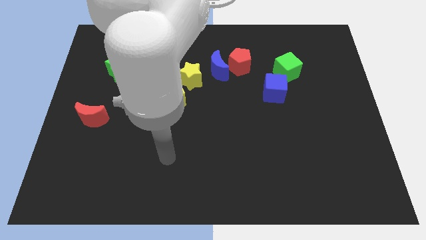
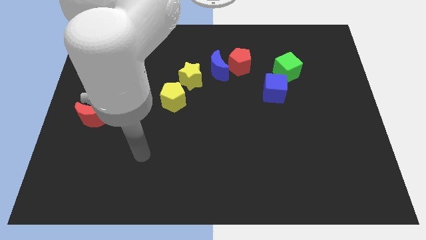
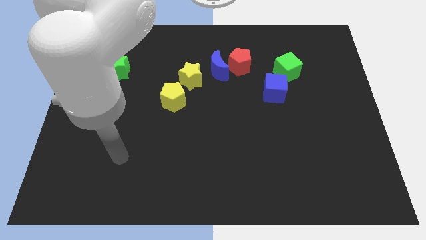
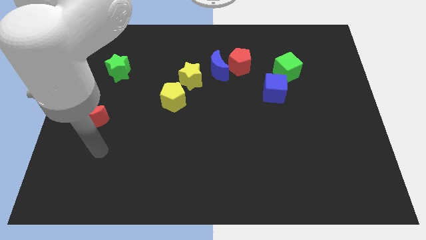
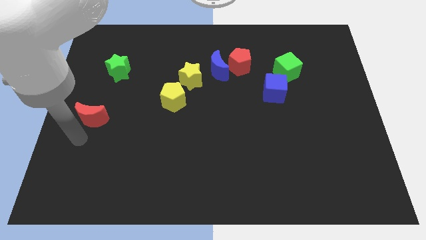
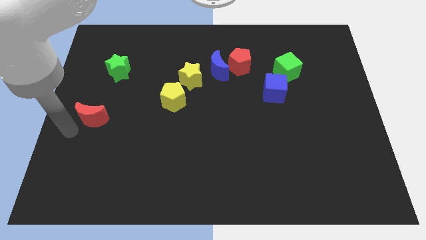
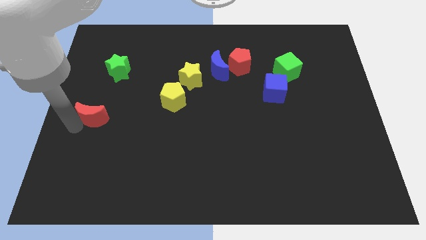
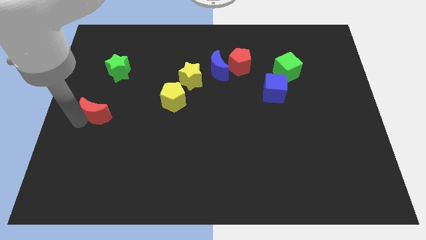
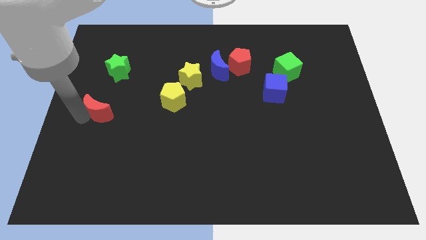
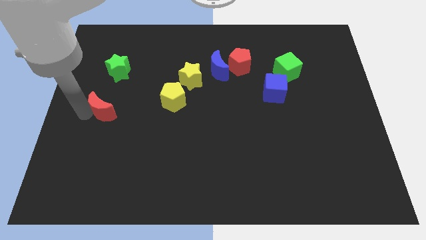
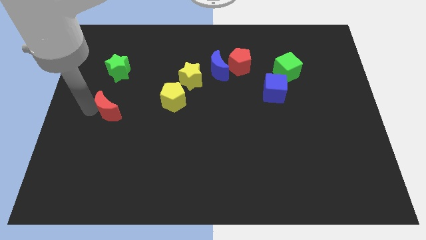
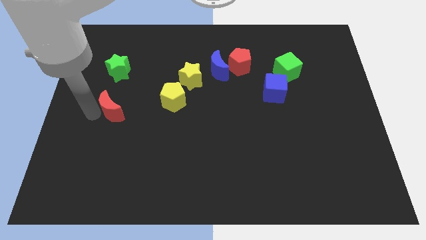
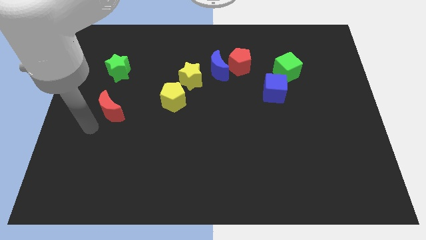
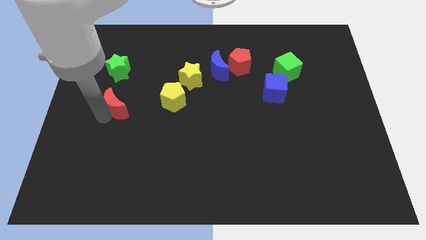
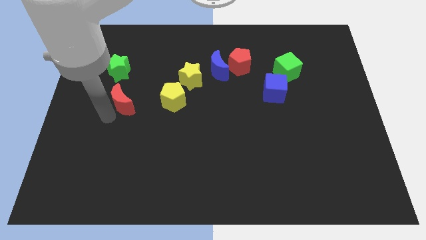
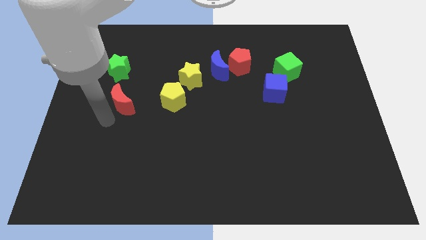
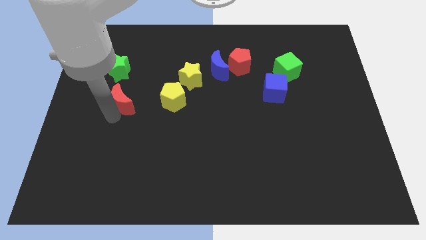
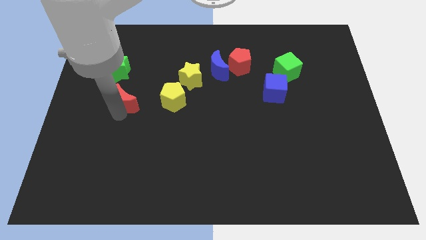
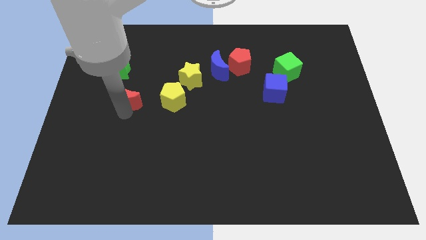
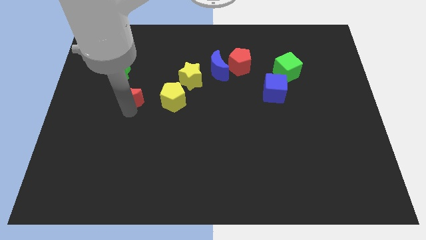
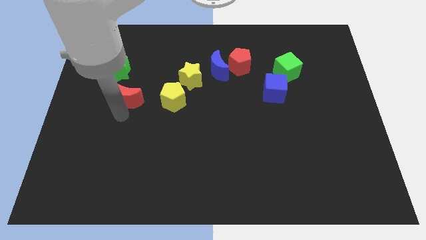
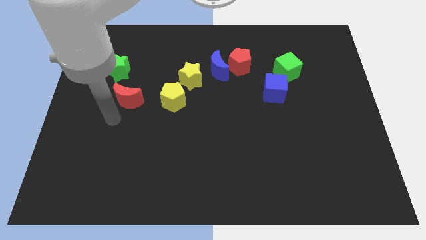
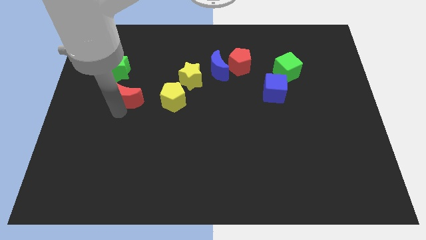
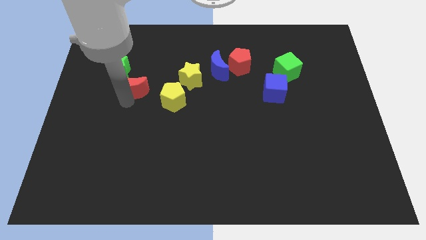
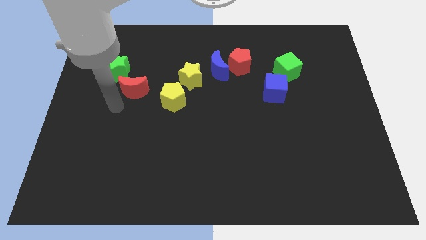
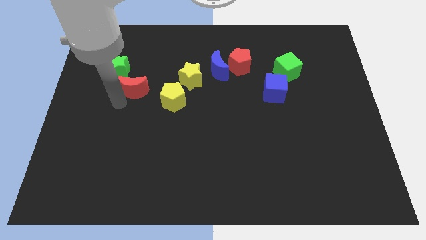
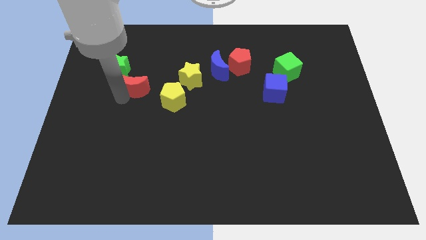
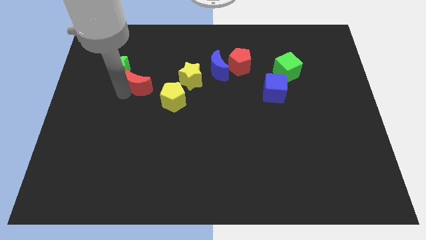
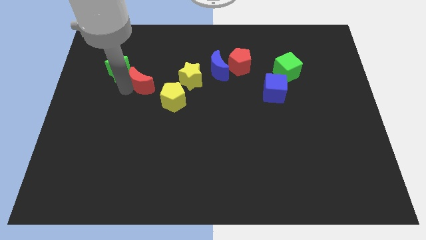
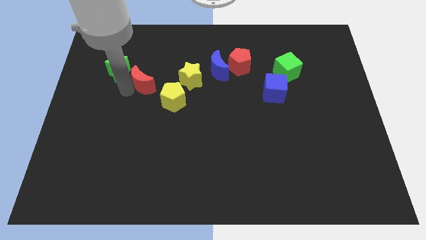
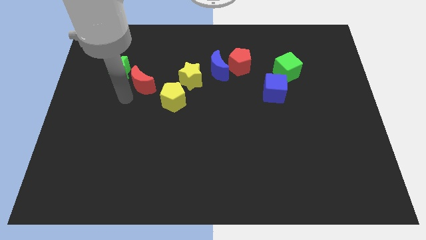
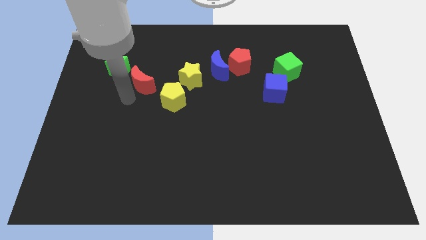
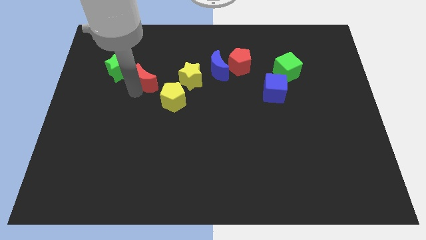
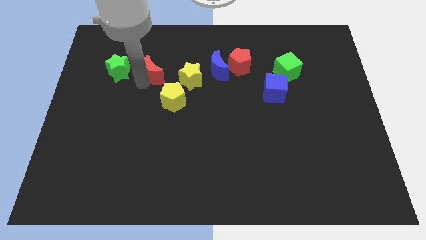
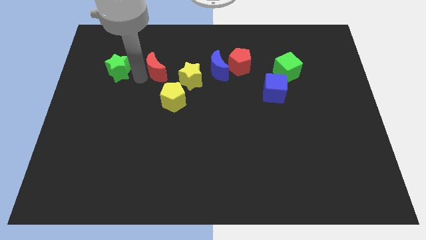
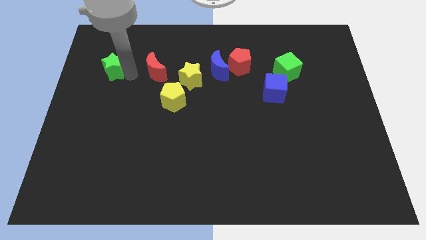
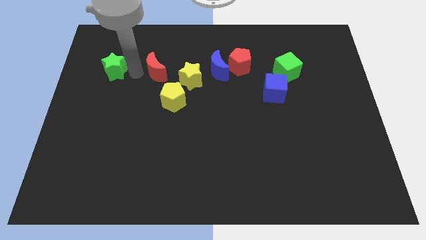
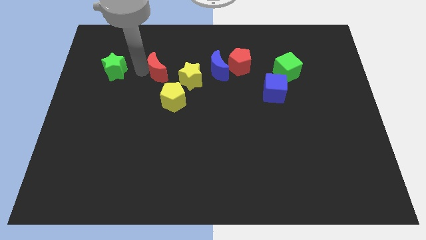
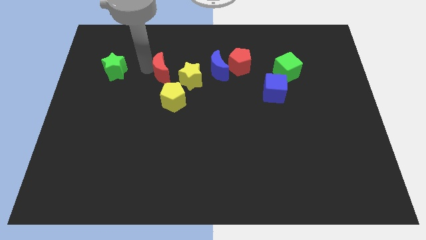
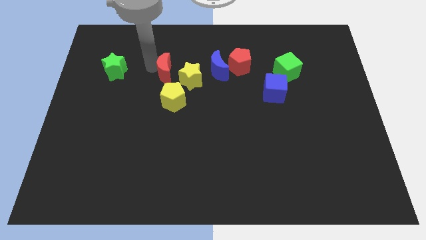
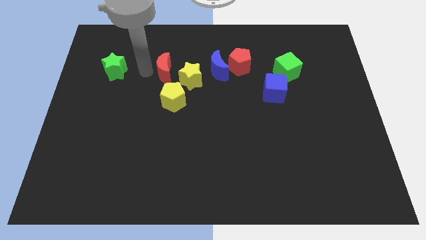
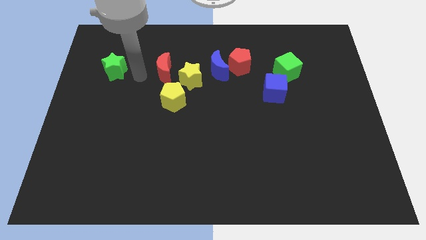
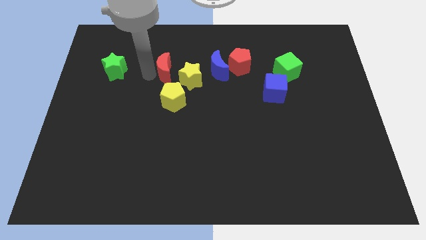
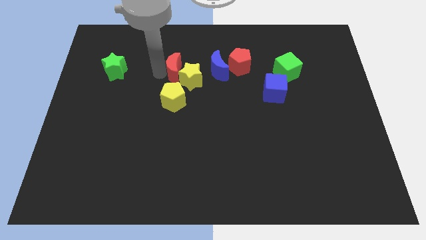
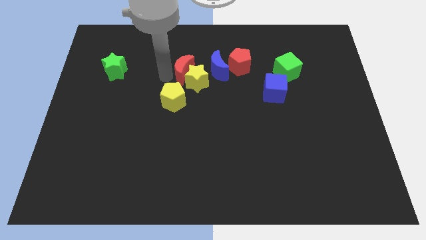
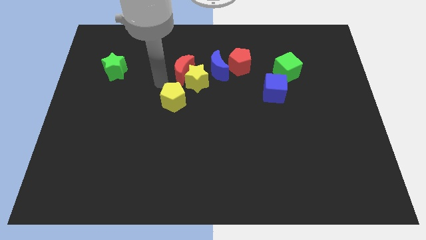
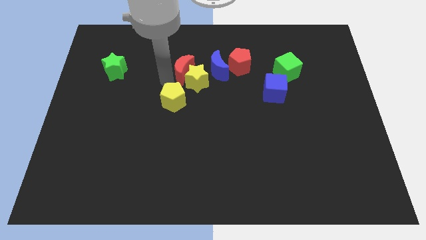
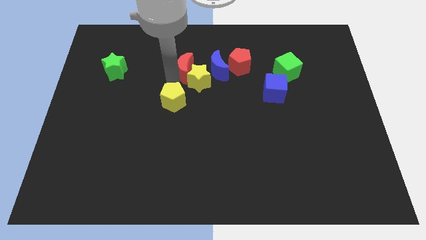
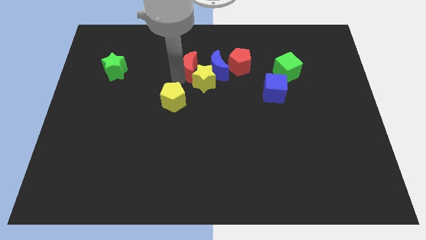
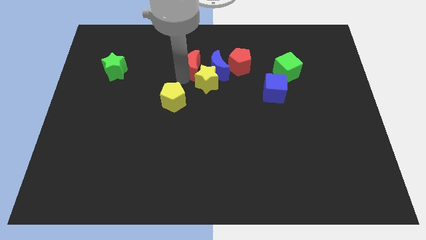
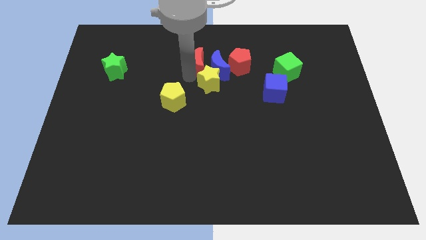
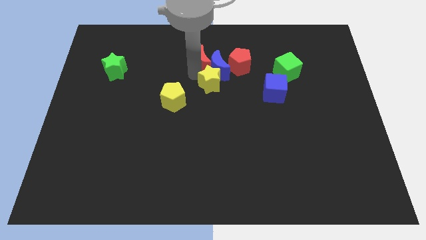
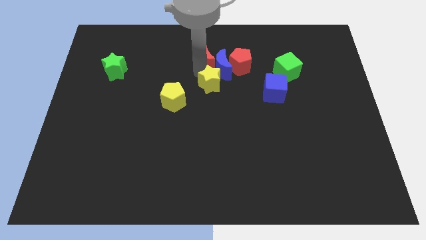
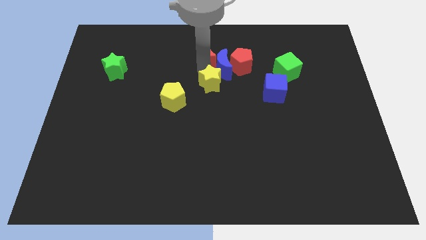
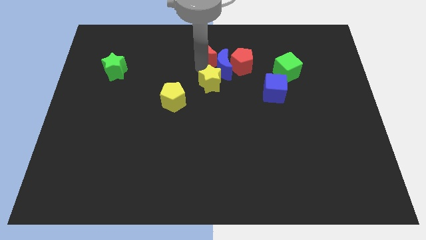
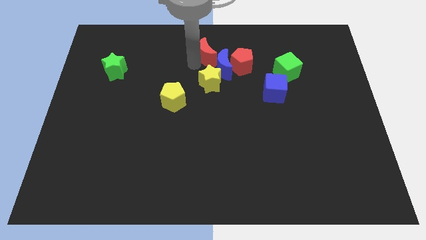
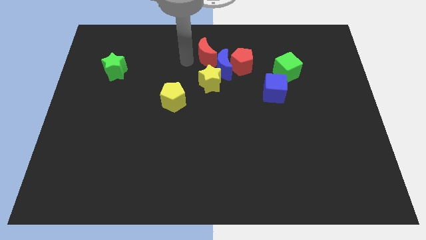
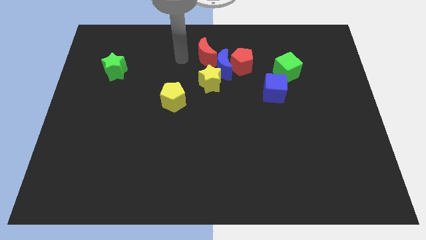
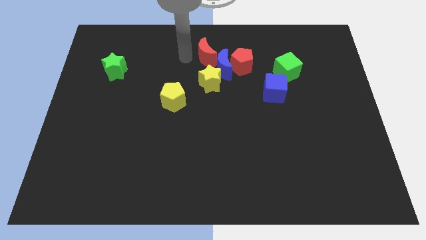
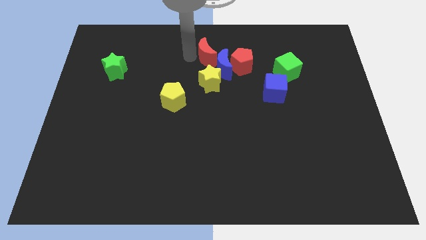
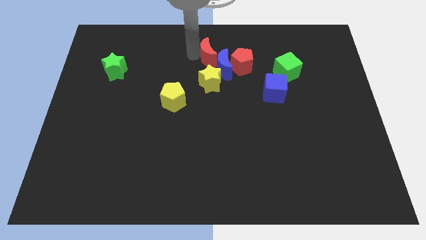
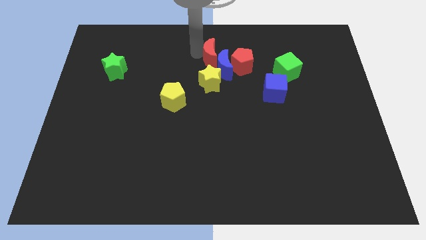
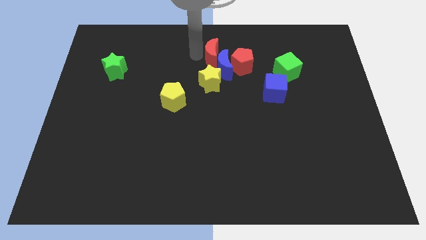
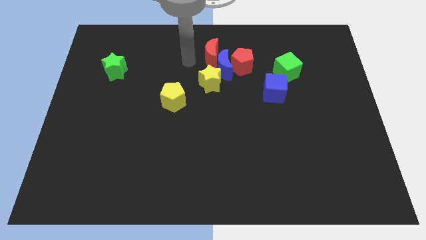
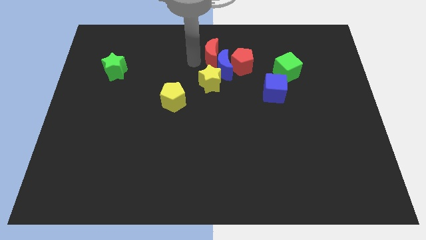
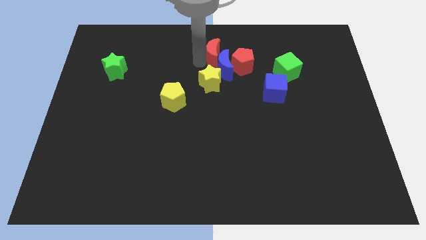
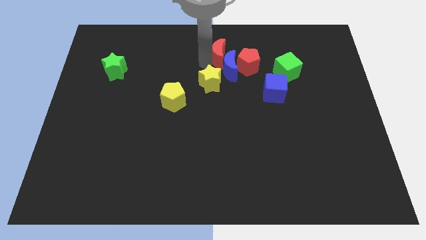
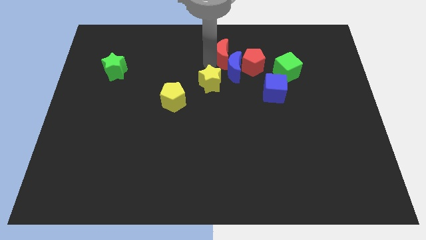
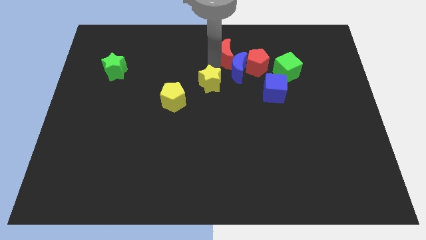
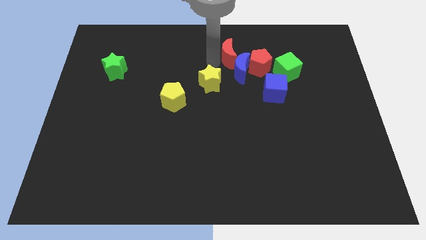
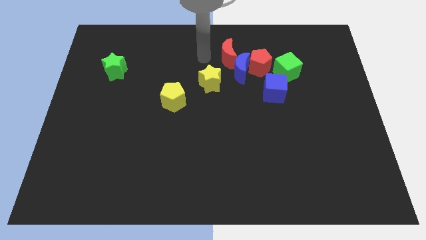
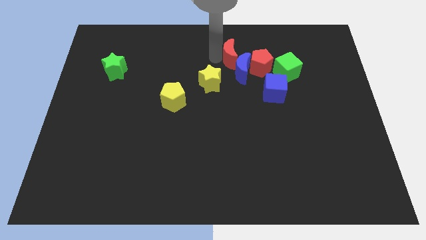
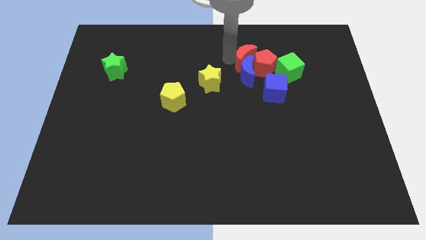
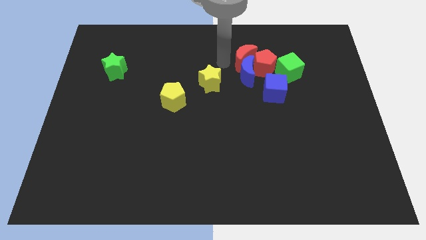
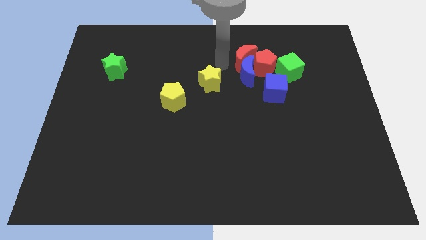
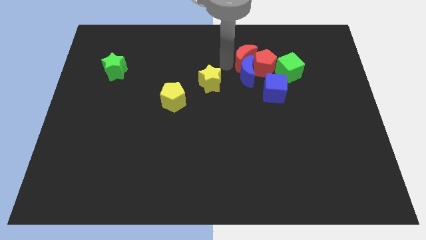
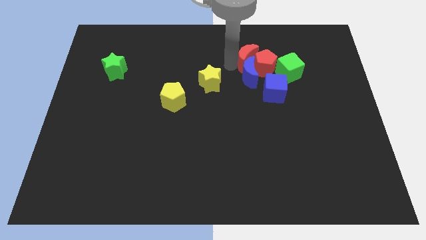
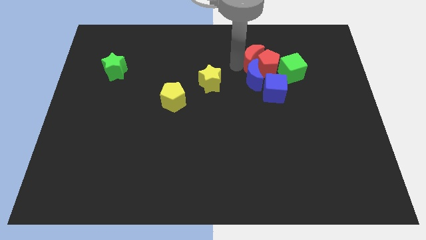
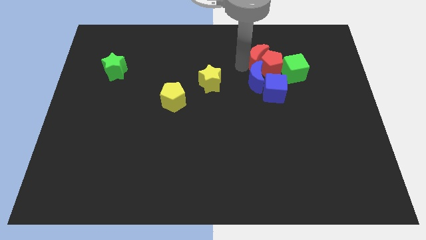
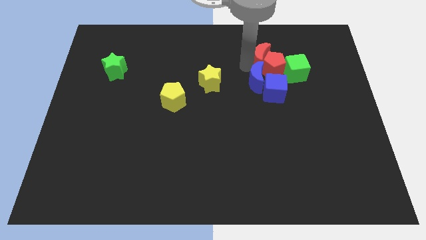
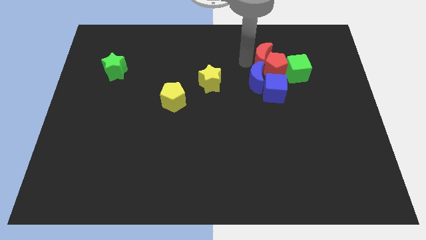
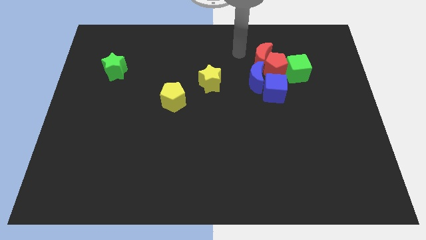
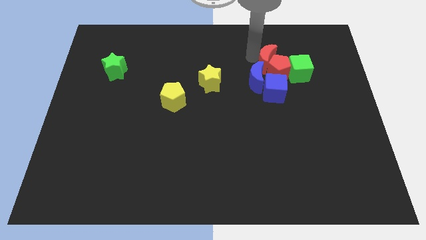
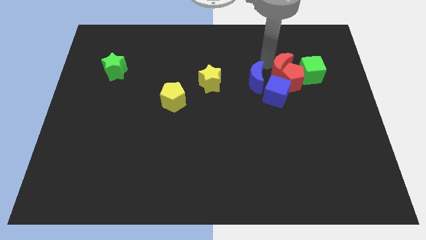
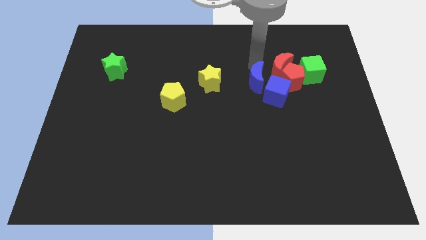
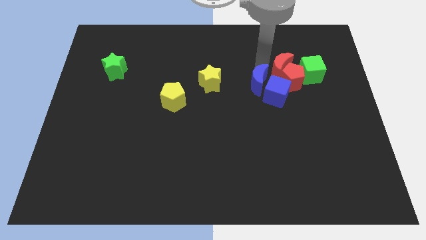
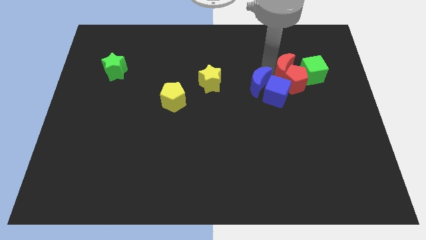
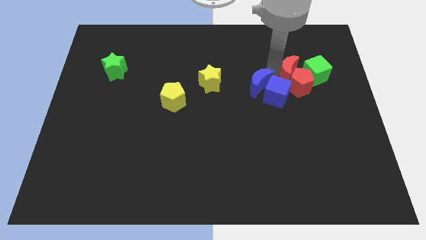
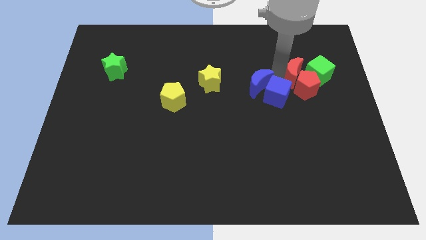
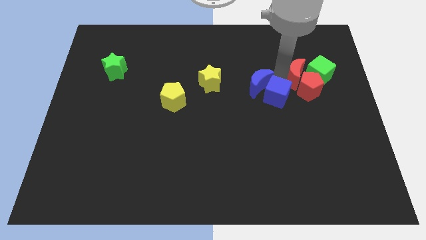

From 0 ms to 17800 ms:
move the red moon to the green cube
